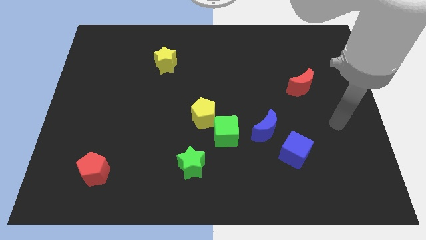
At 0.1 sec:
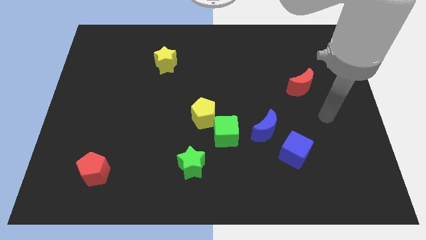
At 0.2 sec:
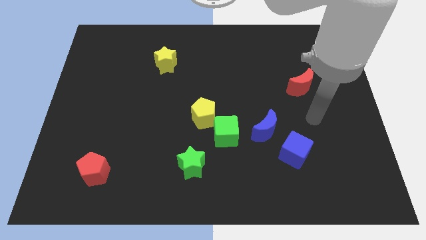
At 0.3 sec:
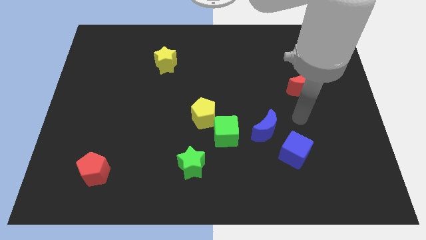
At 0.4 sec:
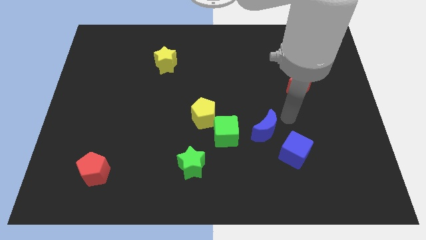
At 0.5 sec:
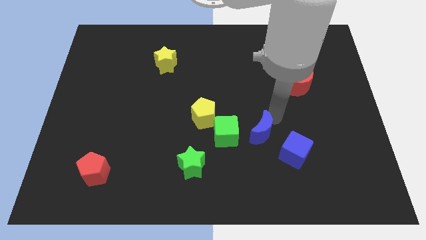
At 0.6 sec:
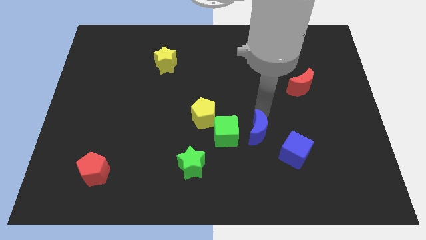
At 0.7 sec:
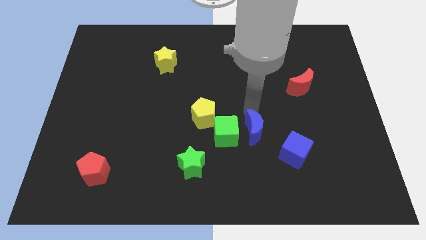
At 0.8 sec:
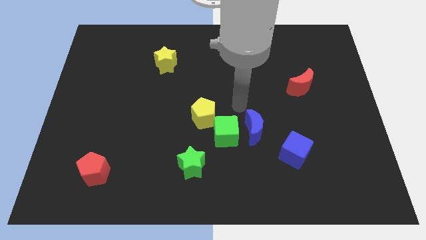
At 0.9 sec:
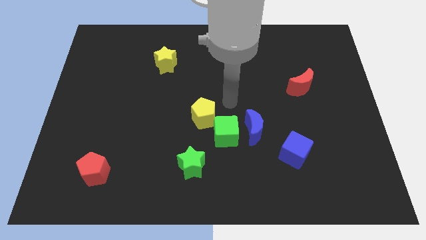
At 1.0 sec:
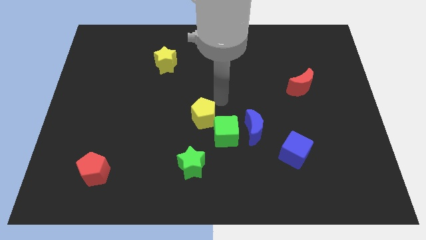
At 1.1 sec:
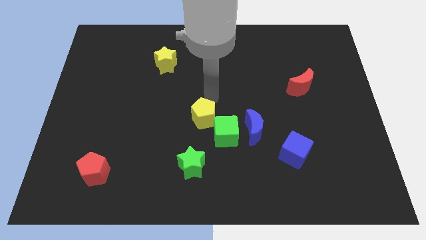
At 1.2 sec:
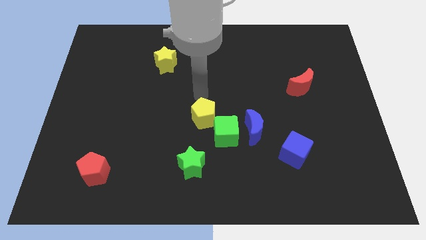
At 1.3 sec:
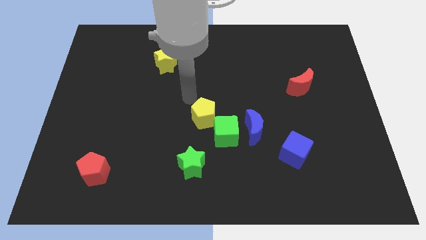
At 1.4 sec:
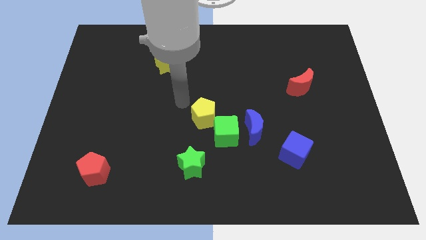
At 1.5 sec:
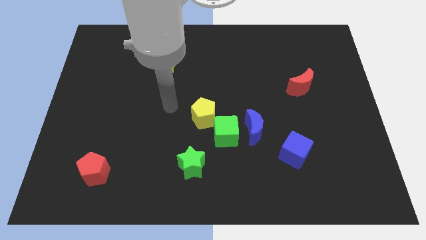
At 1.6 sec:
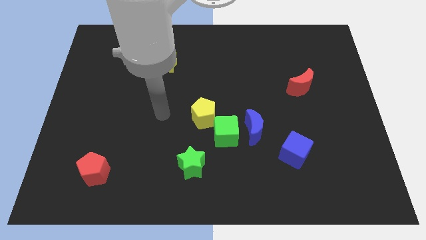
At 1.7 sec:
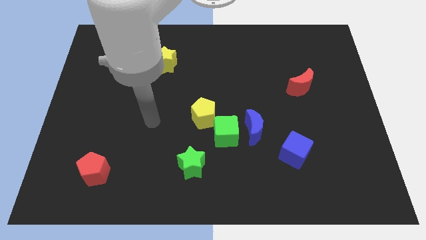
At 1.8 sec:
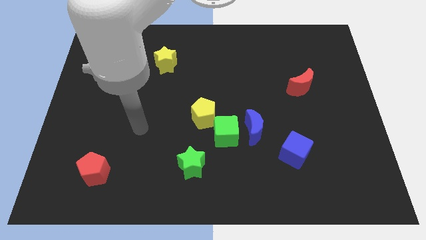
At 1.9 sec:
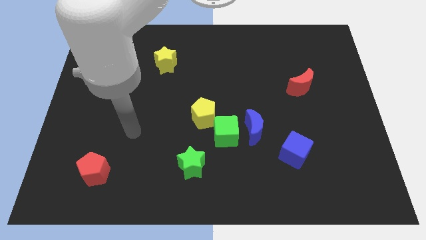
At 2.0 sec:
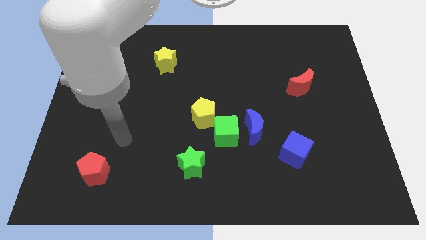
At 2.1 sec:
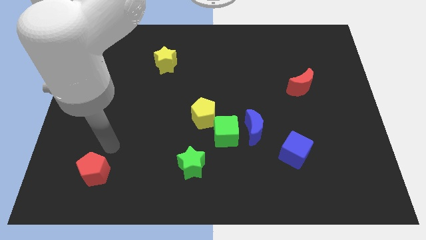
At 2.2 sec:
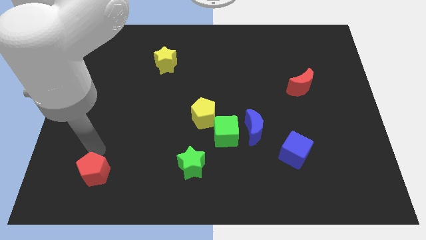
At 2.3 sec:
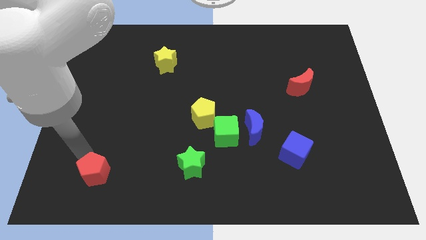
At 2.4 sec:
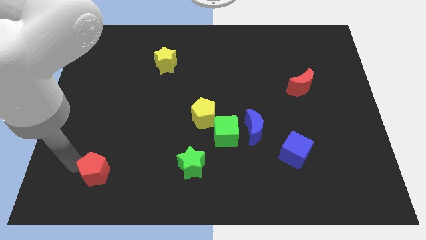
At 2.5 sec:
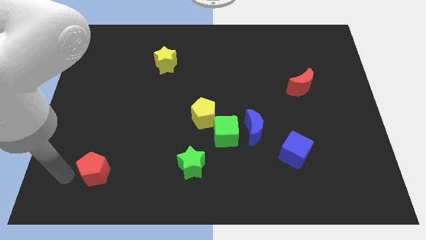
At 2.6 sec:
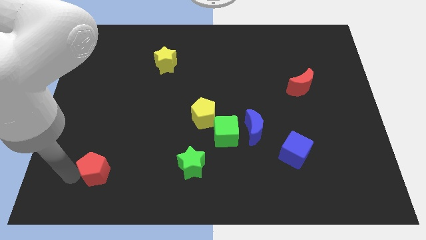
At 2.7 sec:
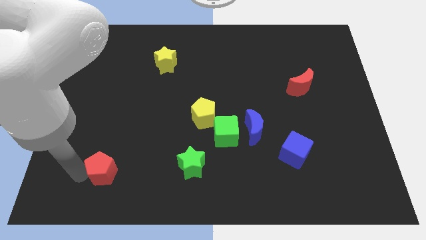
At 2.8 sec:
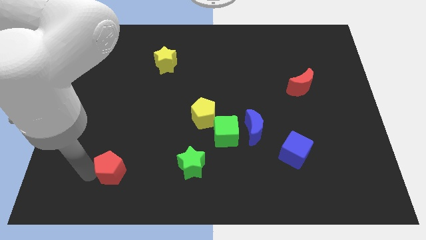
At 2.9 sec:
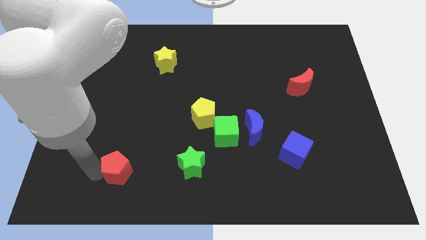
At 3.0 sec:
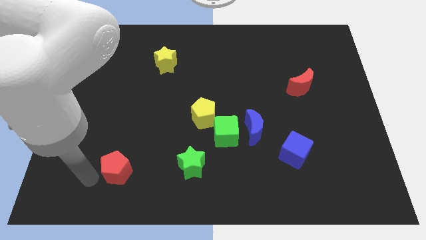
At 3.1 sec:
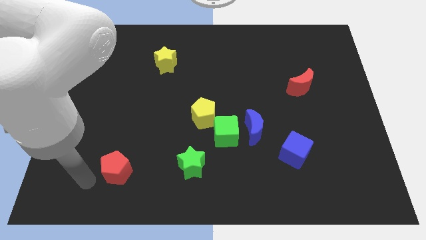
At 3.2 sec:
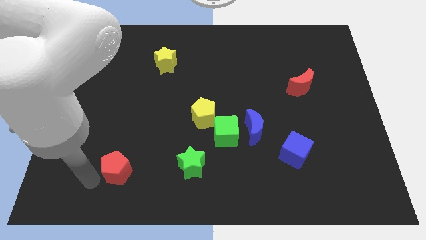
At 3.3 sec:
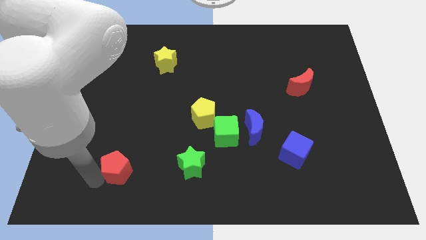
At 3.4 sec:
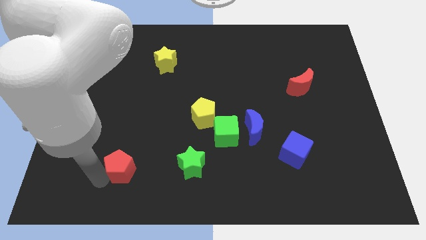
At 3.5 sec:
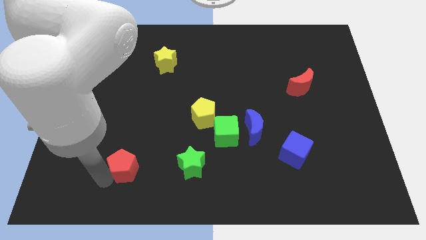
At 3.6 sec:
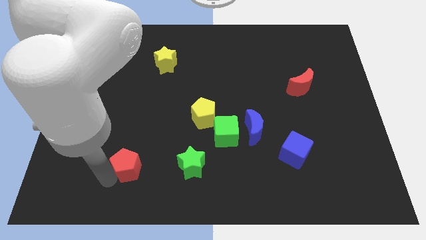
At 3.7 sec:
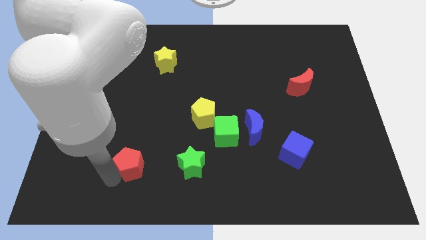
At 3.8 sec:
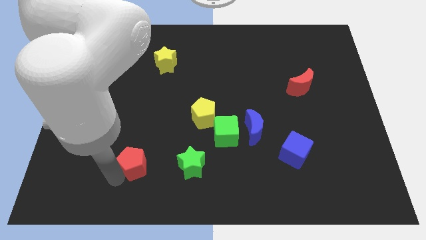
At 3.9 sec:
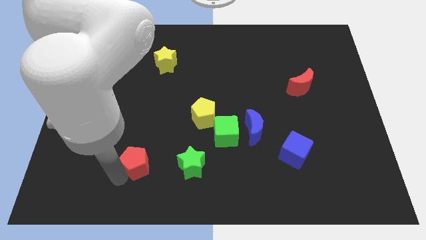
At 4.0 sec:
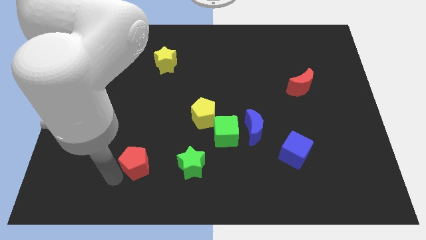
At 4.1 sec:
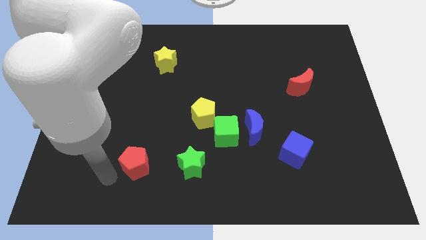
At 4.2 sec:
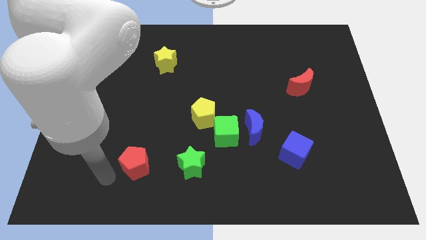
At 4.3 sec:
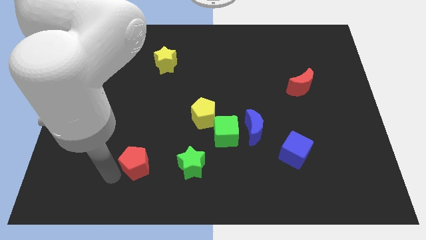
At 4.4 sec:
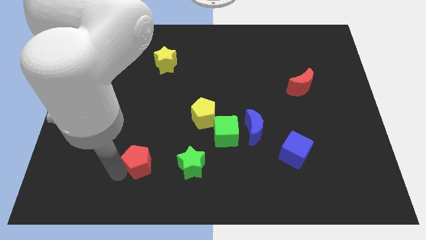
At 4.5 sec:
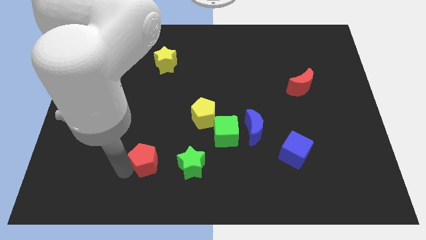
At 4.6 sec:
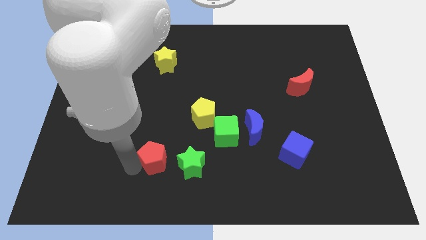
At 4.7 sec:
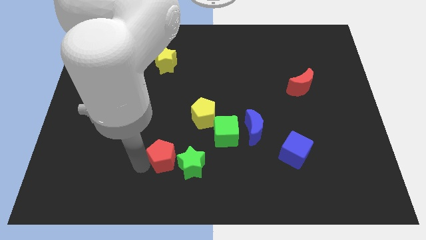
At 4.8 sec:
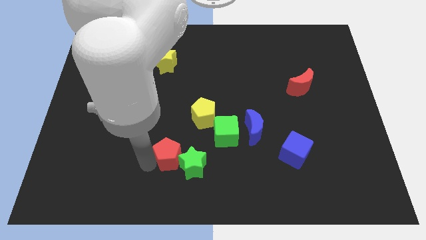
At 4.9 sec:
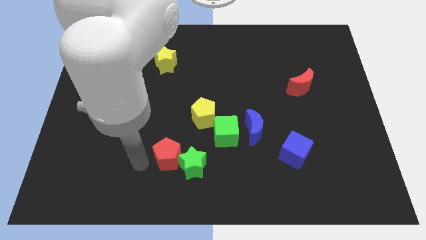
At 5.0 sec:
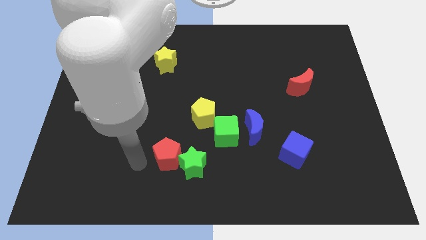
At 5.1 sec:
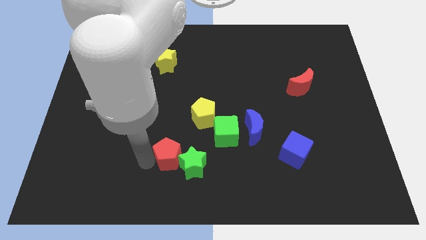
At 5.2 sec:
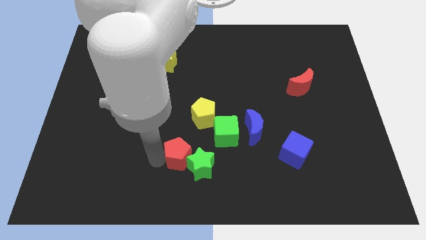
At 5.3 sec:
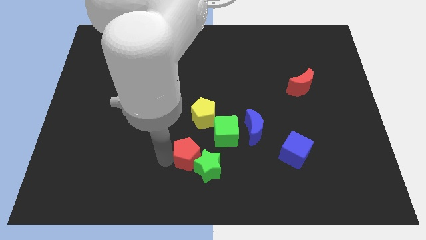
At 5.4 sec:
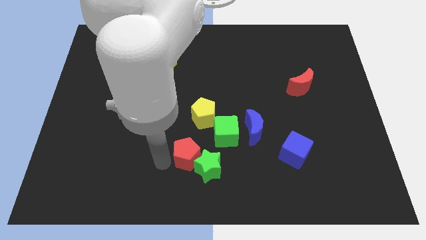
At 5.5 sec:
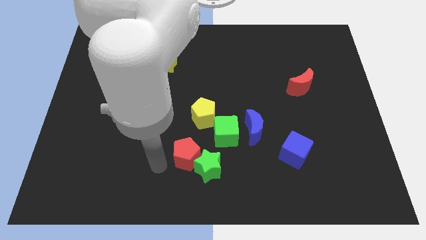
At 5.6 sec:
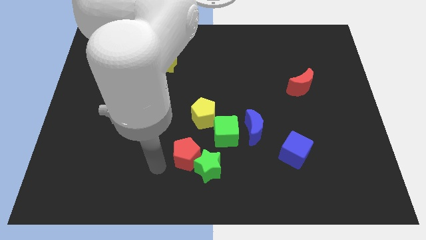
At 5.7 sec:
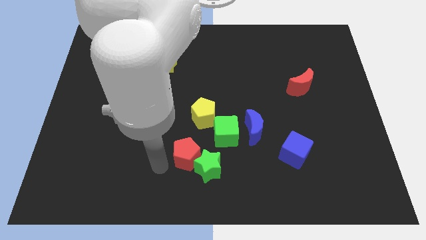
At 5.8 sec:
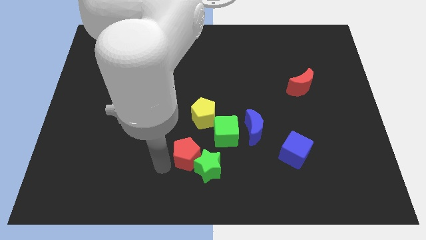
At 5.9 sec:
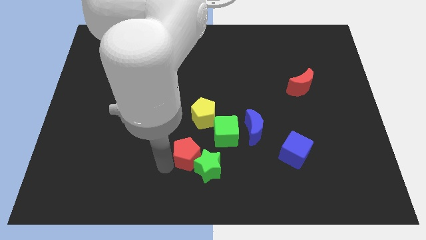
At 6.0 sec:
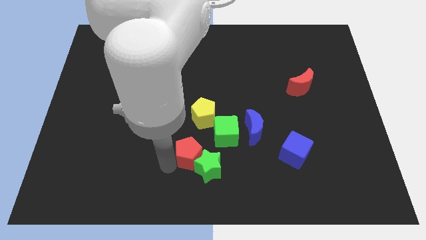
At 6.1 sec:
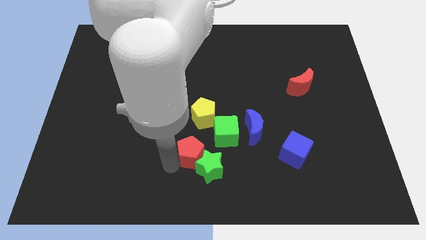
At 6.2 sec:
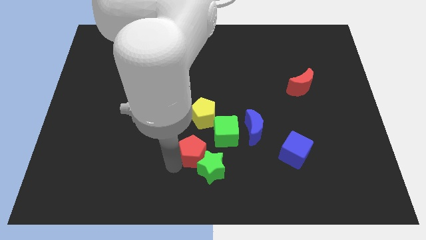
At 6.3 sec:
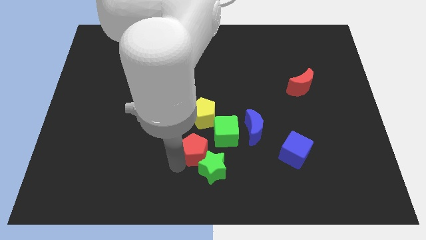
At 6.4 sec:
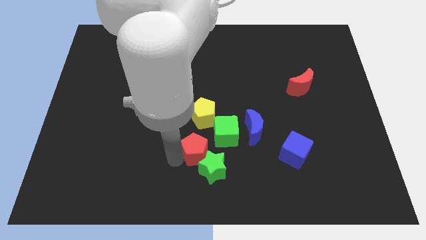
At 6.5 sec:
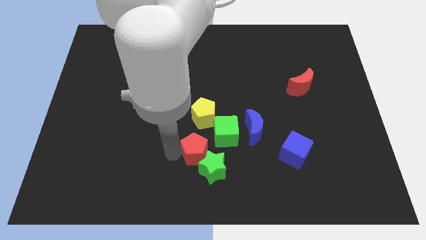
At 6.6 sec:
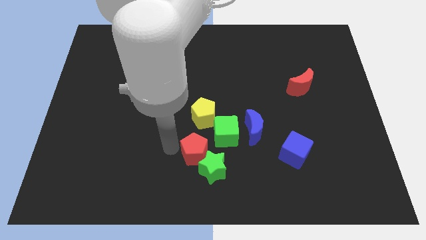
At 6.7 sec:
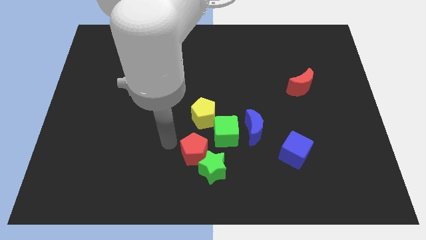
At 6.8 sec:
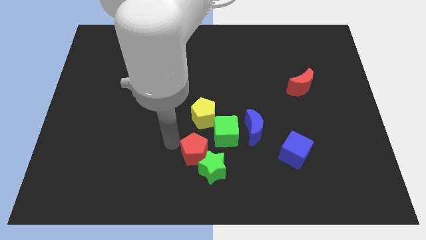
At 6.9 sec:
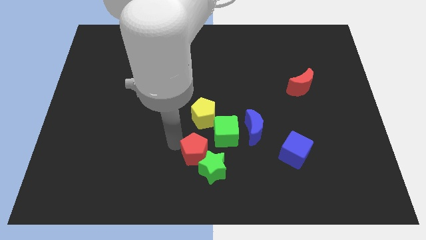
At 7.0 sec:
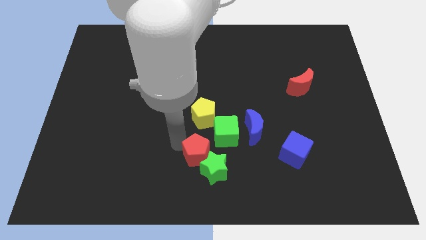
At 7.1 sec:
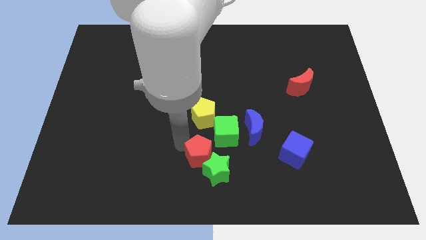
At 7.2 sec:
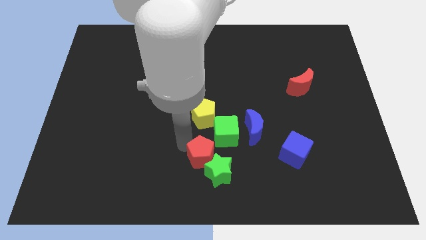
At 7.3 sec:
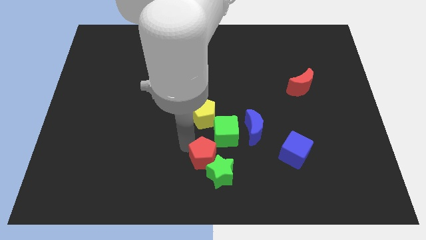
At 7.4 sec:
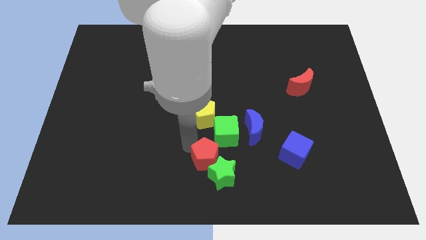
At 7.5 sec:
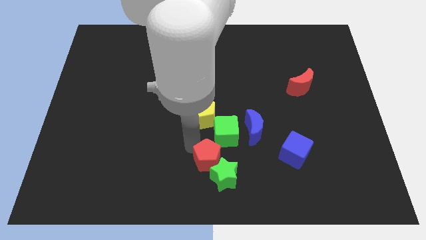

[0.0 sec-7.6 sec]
move the red pentagon diagonally down and to the left of the blue moon
